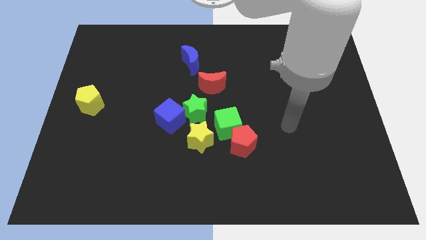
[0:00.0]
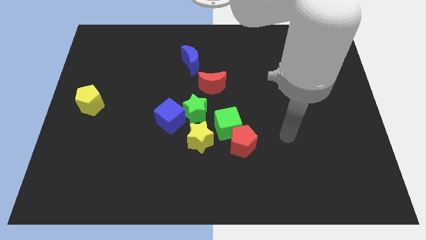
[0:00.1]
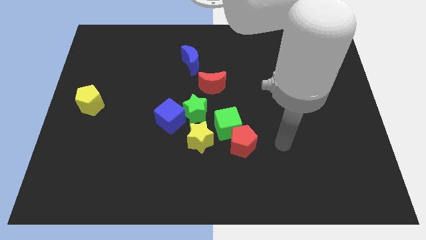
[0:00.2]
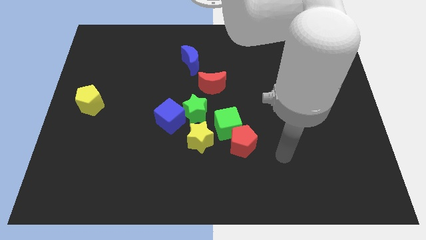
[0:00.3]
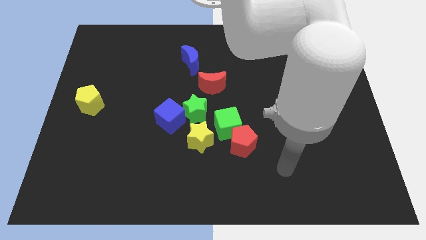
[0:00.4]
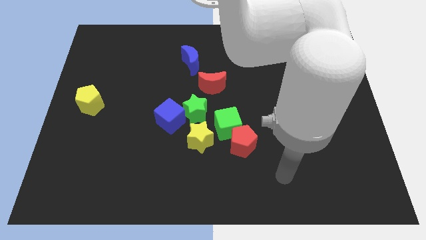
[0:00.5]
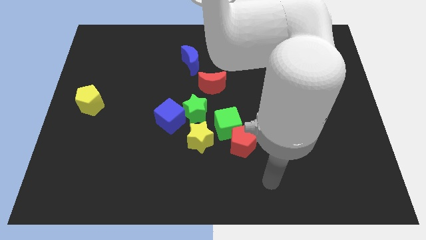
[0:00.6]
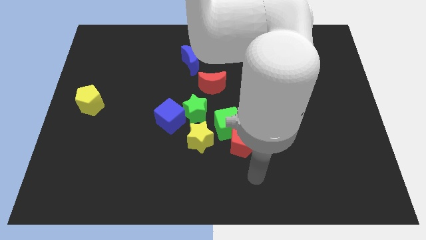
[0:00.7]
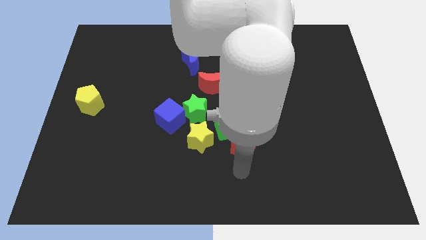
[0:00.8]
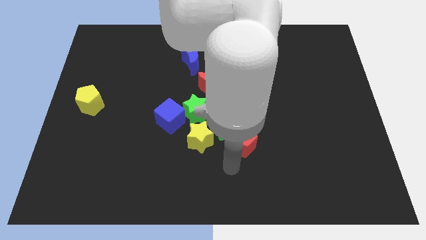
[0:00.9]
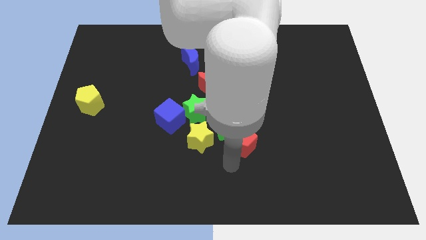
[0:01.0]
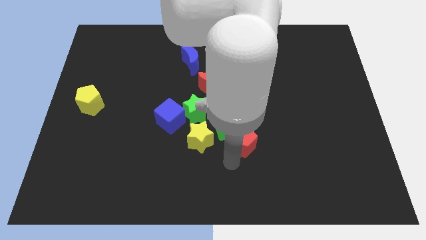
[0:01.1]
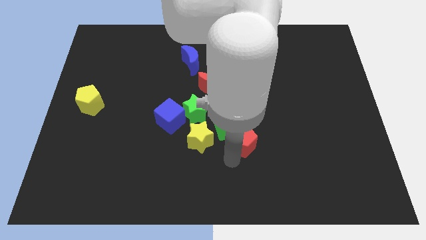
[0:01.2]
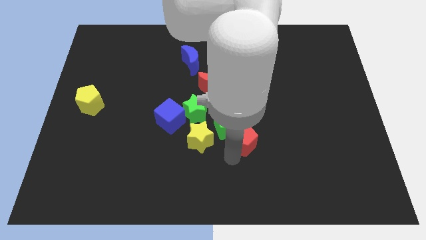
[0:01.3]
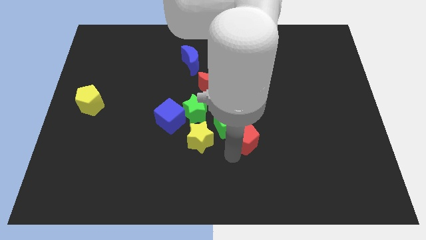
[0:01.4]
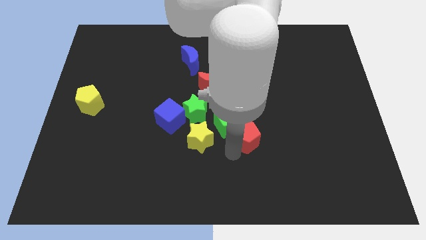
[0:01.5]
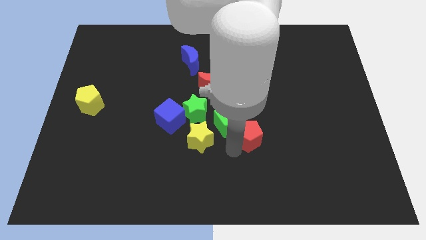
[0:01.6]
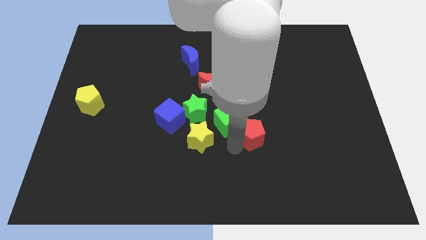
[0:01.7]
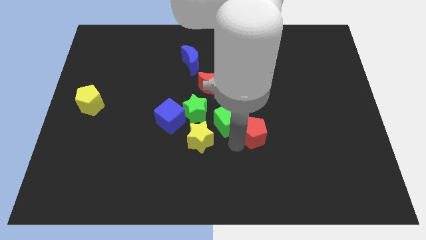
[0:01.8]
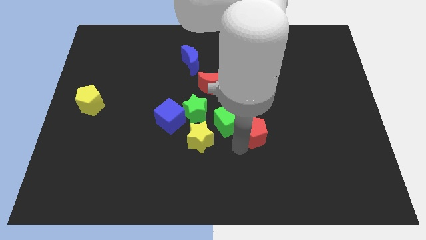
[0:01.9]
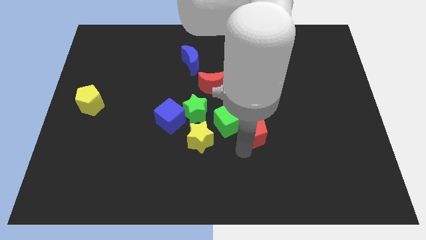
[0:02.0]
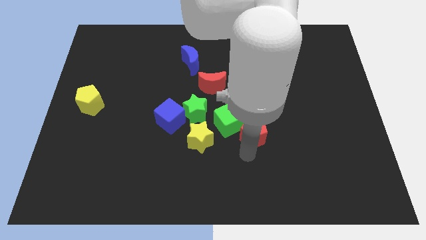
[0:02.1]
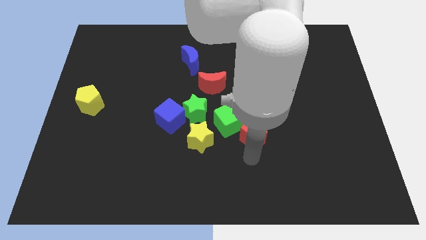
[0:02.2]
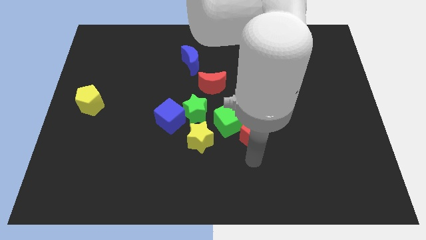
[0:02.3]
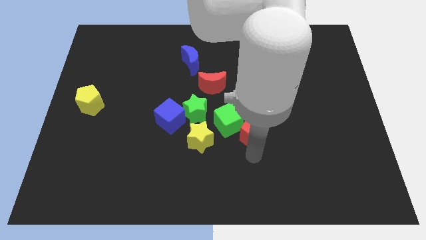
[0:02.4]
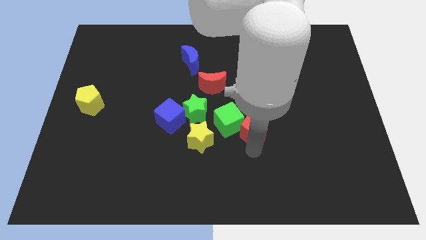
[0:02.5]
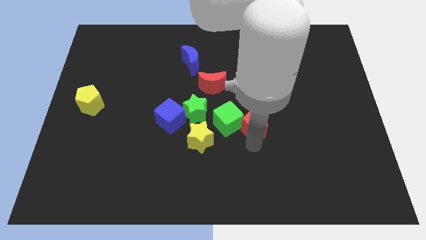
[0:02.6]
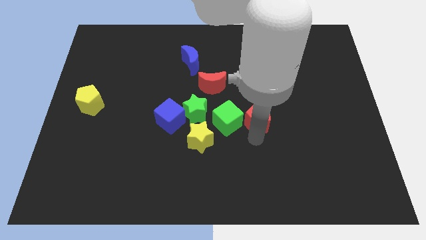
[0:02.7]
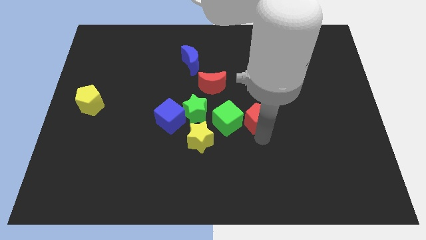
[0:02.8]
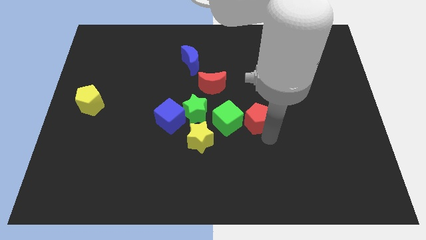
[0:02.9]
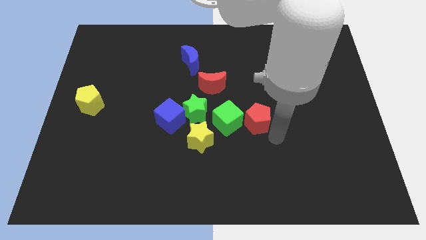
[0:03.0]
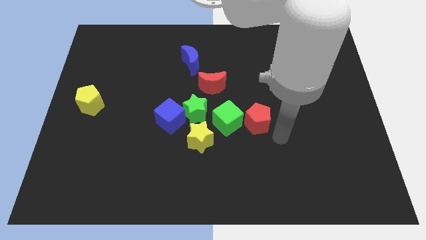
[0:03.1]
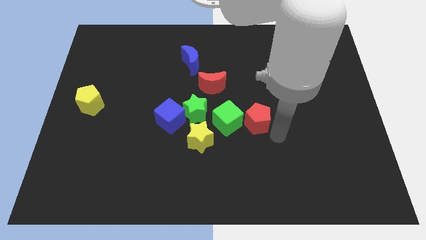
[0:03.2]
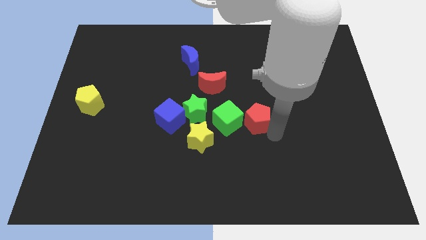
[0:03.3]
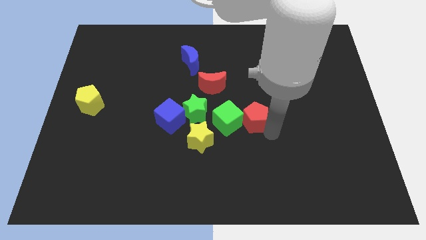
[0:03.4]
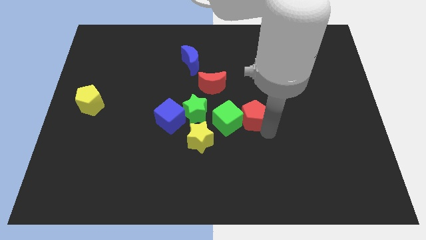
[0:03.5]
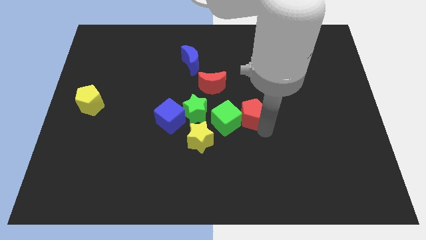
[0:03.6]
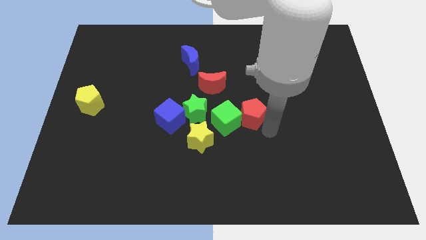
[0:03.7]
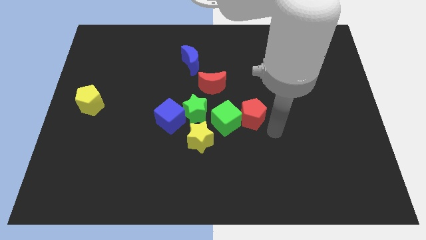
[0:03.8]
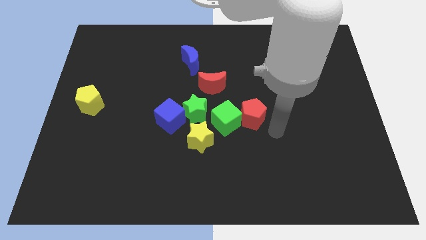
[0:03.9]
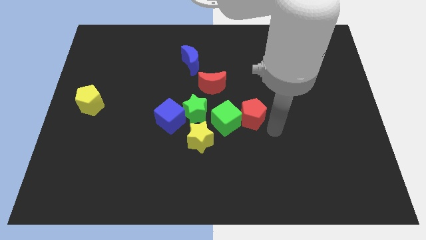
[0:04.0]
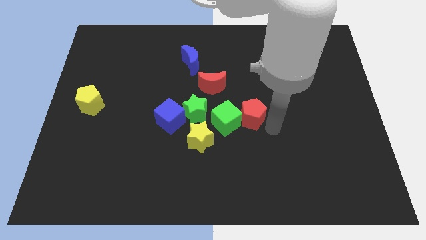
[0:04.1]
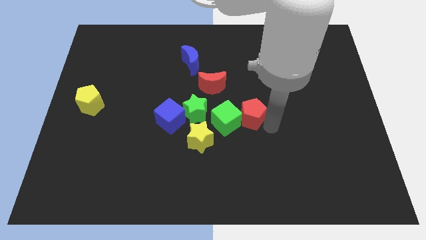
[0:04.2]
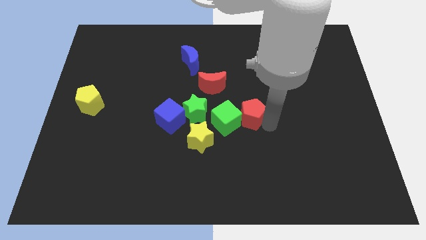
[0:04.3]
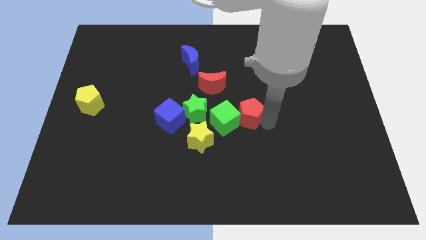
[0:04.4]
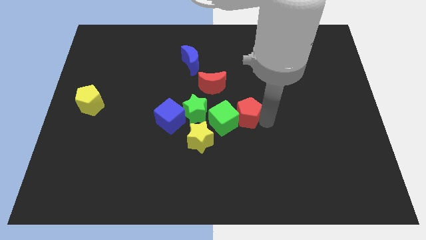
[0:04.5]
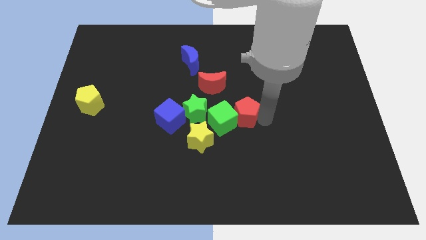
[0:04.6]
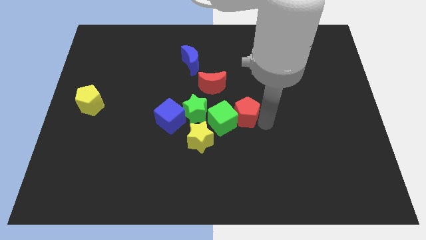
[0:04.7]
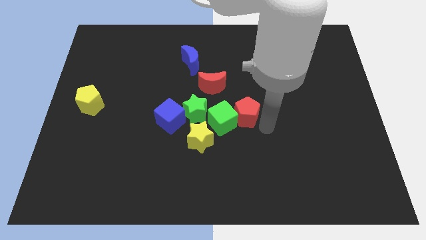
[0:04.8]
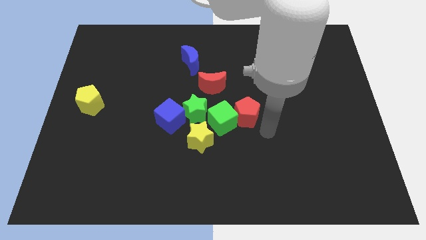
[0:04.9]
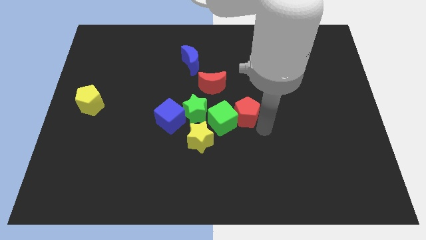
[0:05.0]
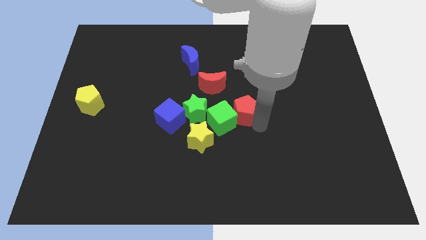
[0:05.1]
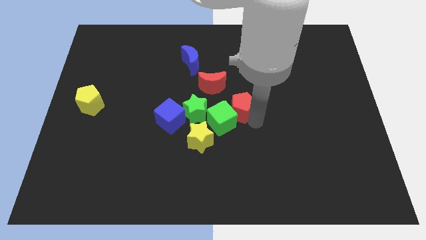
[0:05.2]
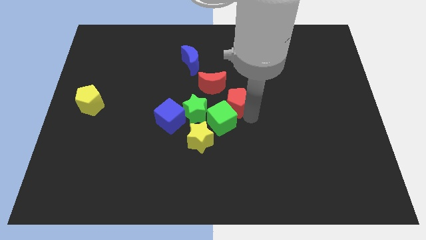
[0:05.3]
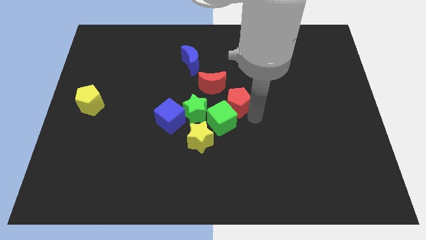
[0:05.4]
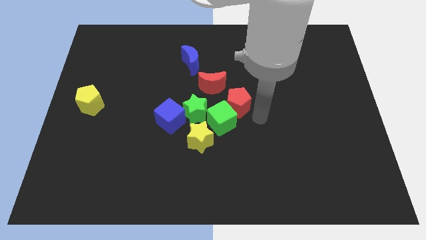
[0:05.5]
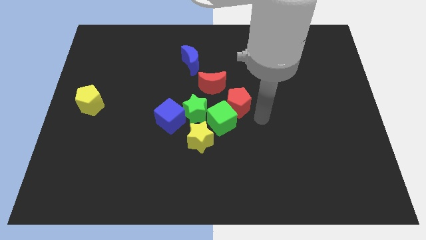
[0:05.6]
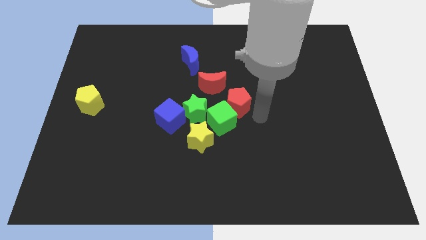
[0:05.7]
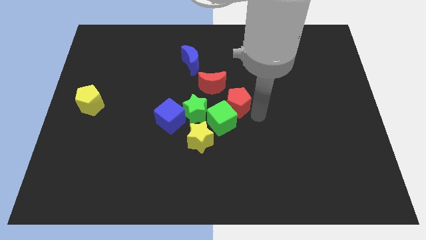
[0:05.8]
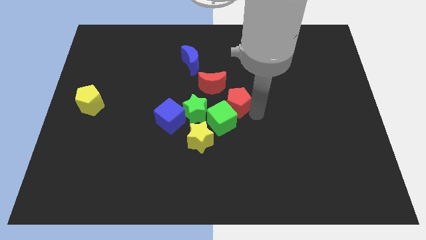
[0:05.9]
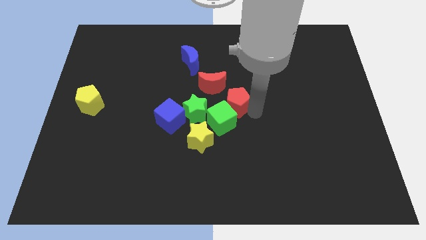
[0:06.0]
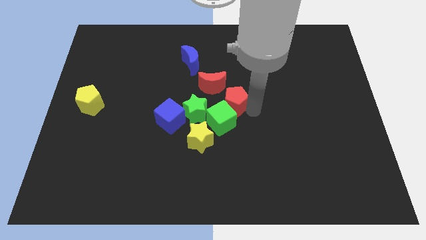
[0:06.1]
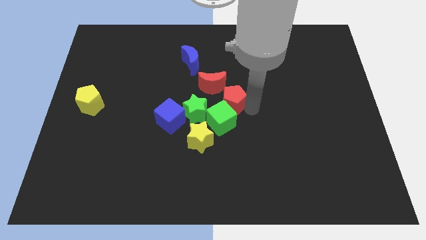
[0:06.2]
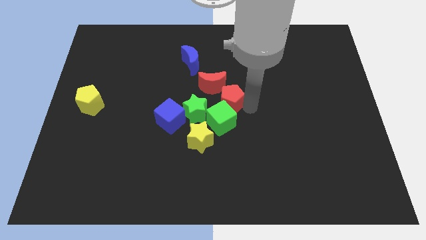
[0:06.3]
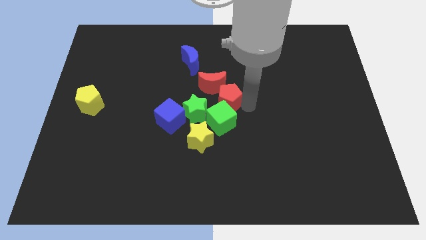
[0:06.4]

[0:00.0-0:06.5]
slide the red pentagon close to the red moon

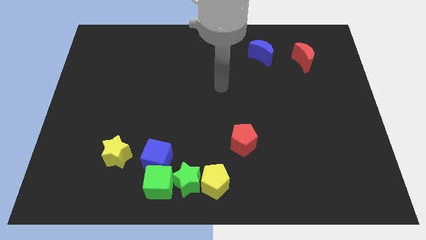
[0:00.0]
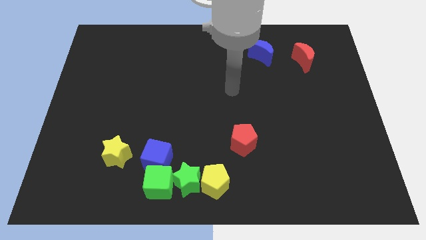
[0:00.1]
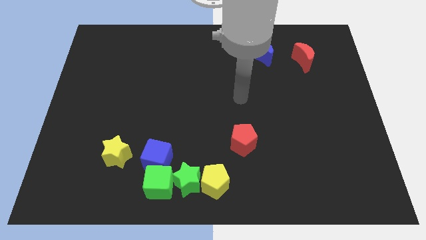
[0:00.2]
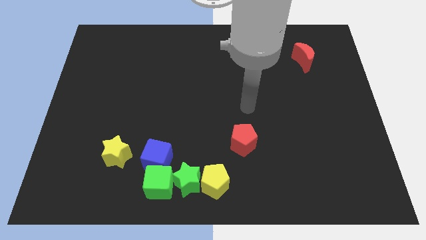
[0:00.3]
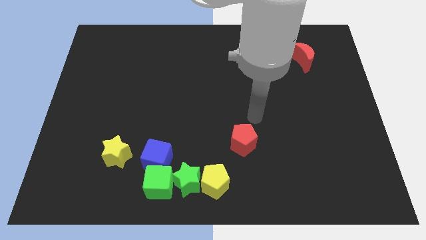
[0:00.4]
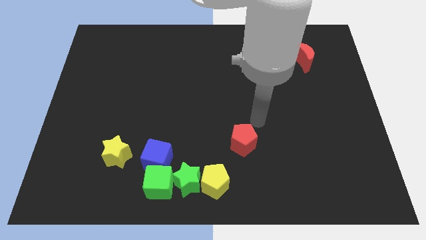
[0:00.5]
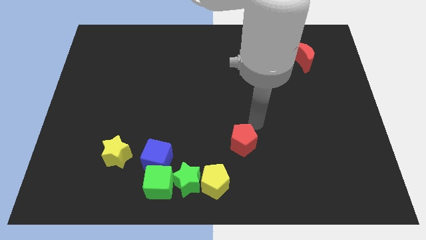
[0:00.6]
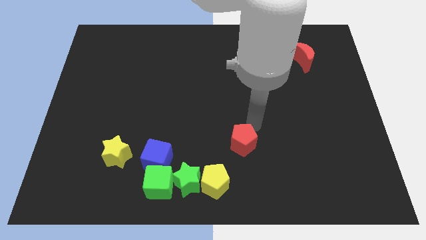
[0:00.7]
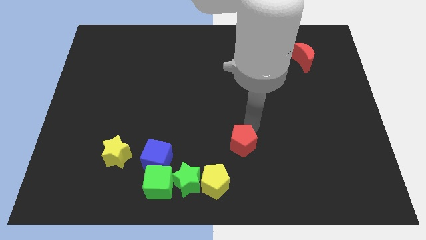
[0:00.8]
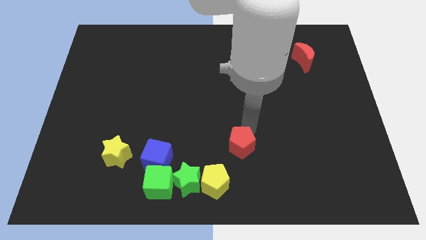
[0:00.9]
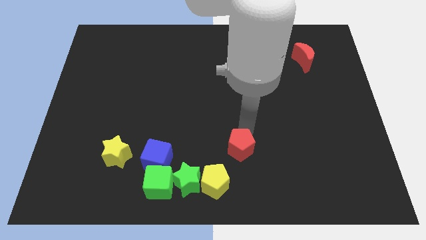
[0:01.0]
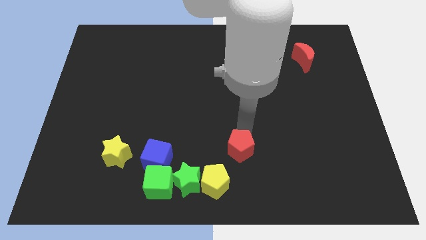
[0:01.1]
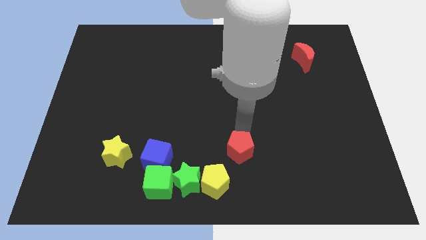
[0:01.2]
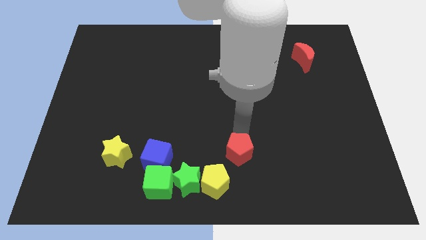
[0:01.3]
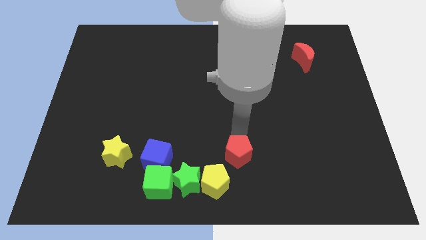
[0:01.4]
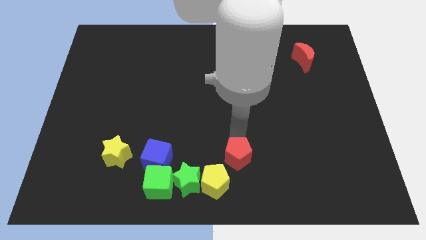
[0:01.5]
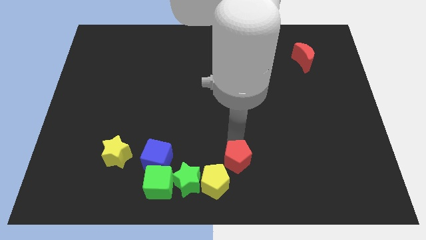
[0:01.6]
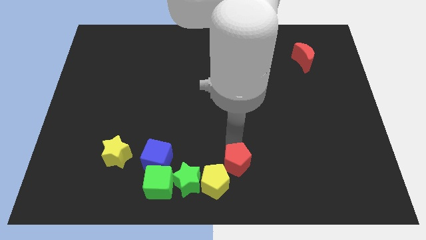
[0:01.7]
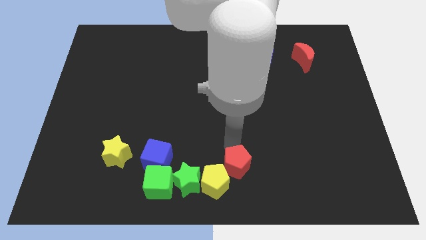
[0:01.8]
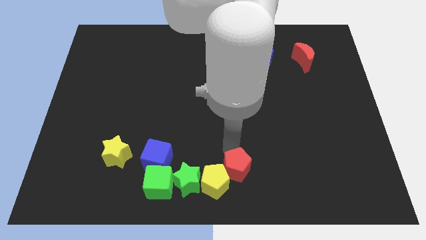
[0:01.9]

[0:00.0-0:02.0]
move the red pentagon close to the yellow pentagon
